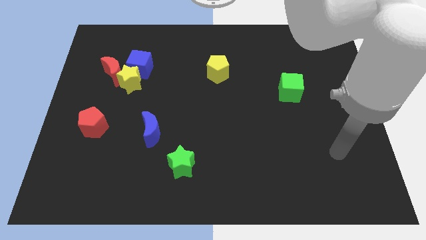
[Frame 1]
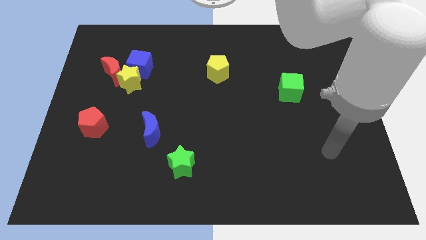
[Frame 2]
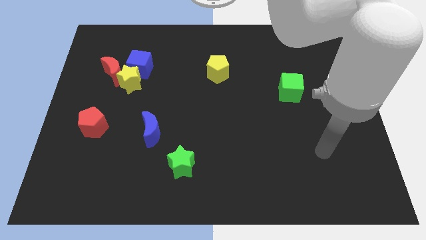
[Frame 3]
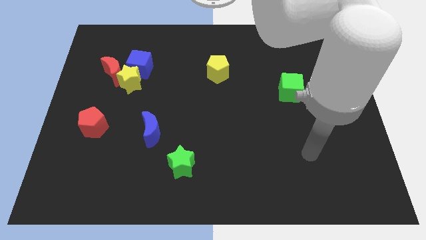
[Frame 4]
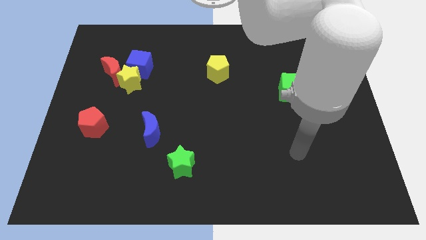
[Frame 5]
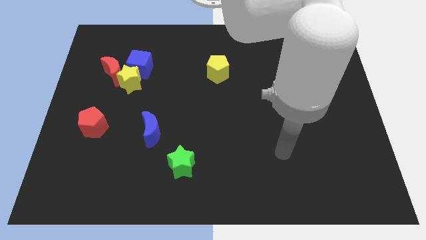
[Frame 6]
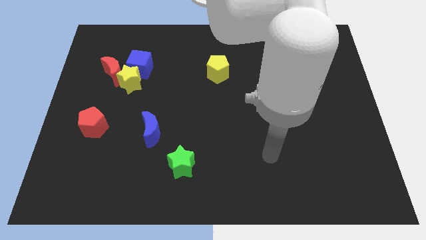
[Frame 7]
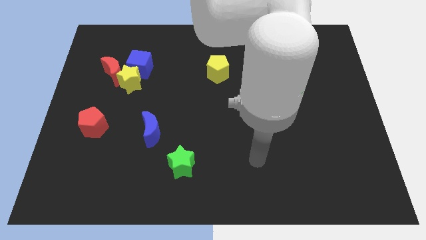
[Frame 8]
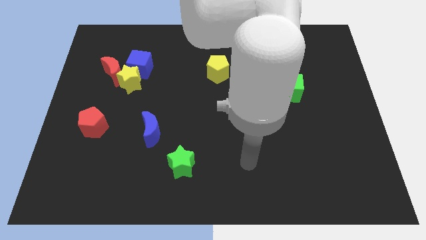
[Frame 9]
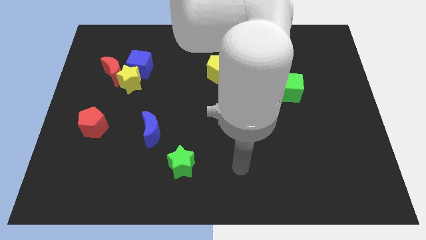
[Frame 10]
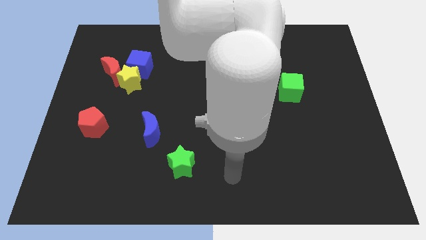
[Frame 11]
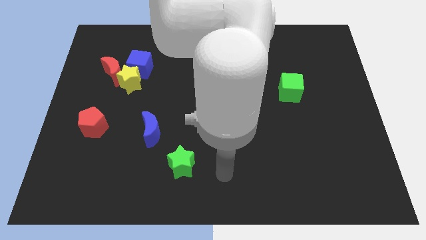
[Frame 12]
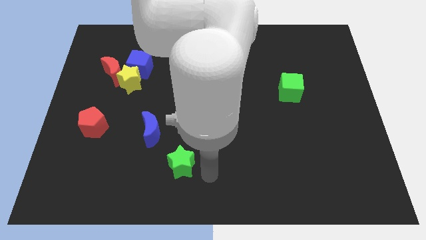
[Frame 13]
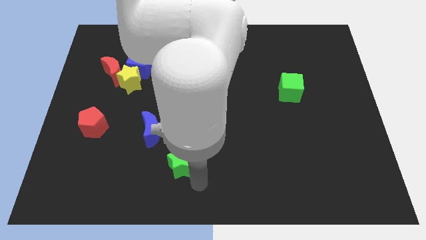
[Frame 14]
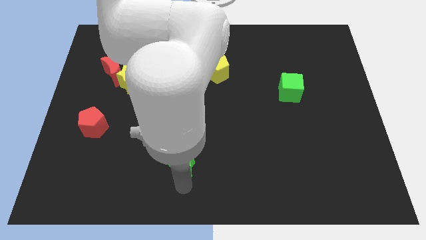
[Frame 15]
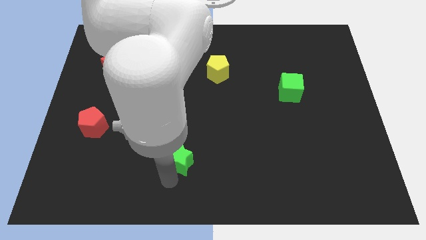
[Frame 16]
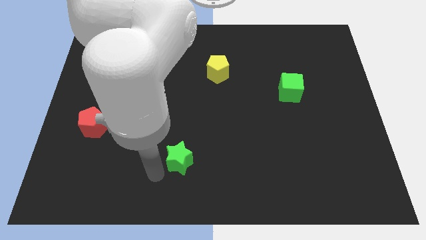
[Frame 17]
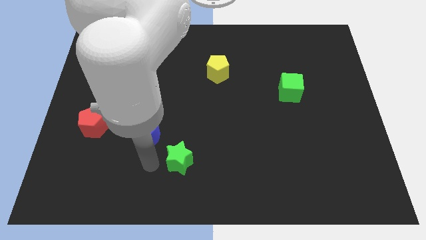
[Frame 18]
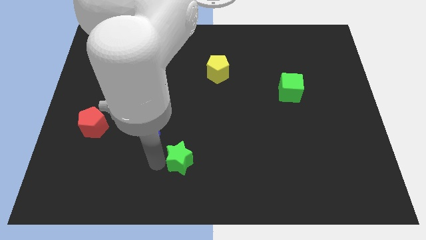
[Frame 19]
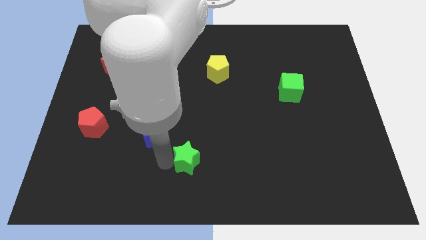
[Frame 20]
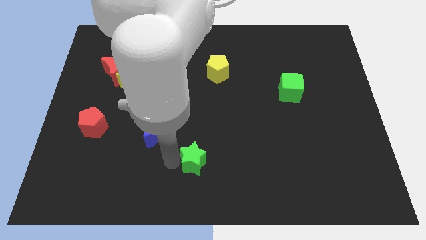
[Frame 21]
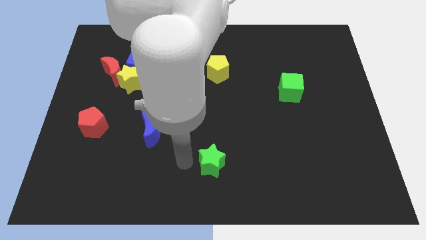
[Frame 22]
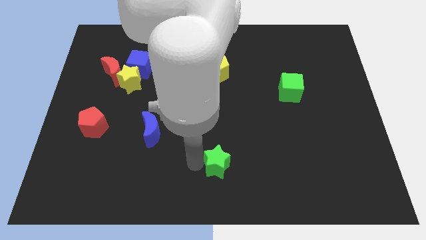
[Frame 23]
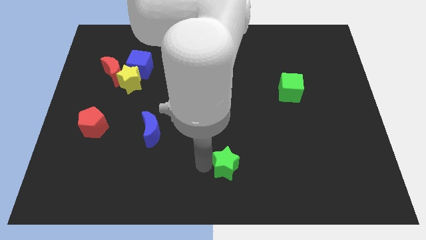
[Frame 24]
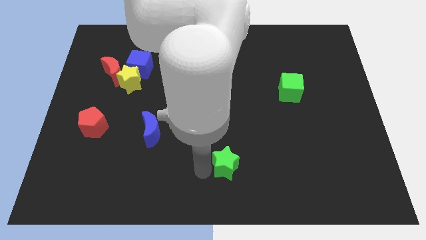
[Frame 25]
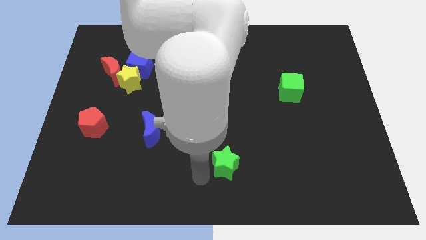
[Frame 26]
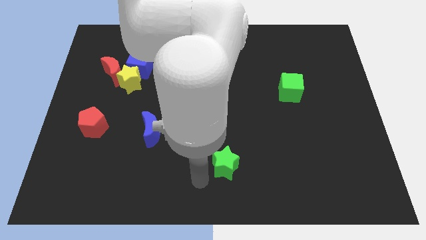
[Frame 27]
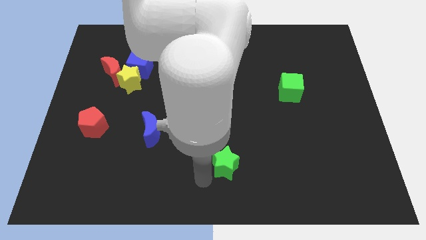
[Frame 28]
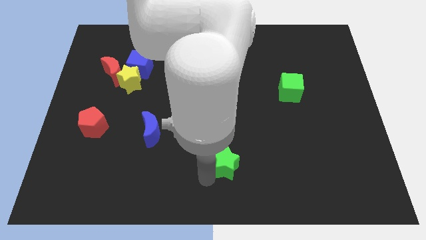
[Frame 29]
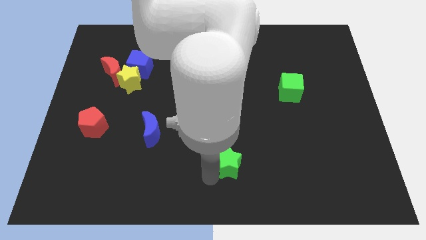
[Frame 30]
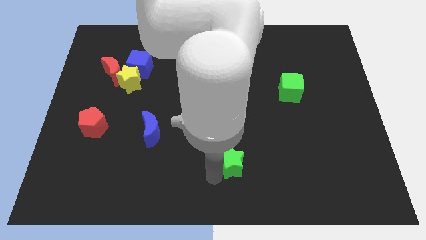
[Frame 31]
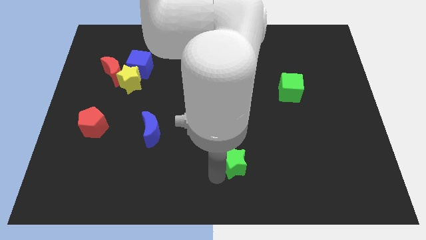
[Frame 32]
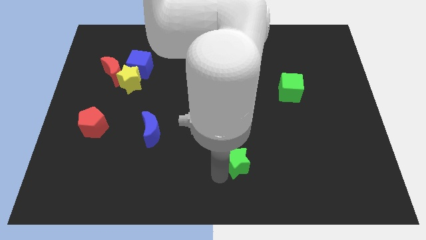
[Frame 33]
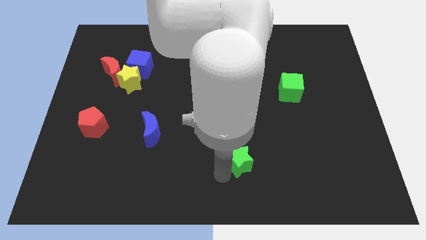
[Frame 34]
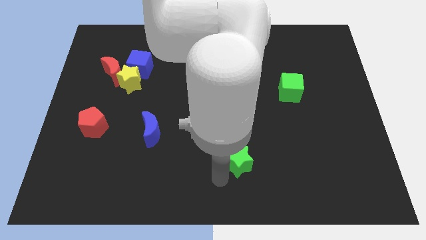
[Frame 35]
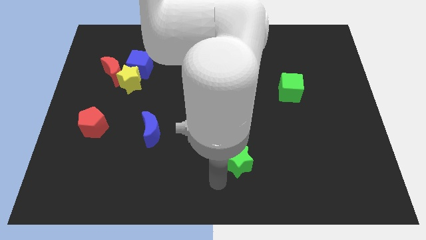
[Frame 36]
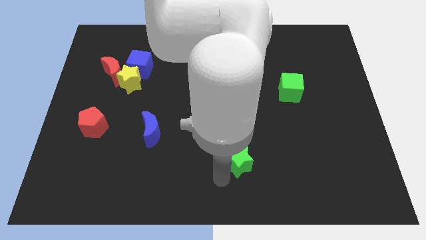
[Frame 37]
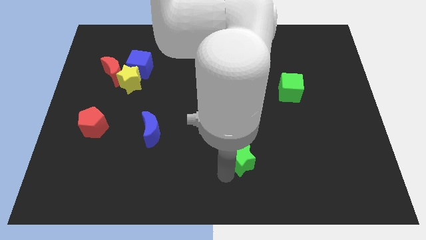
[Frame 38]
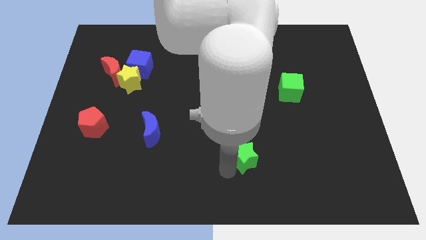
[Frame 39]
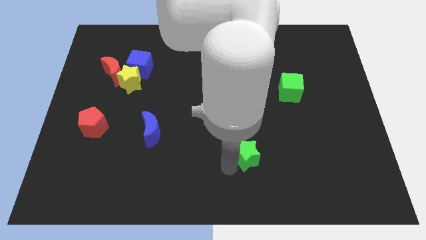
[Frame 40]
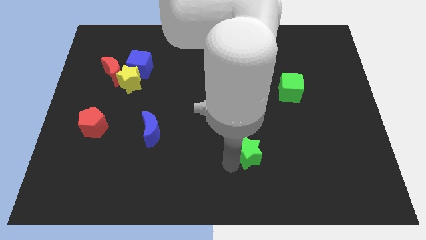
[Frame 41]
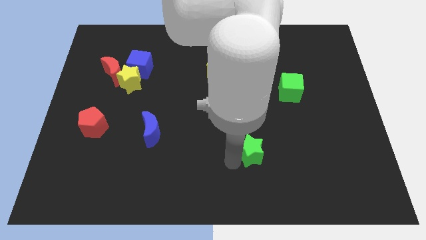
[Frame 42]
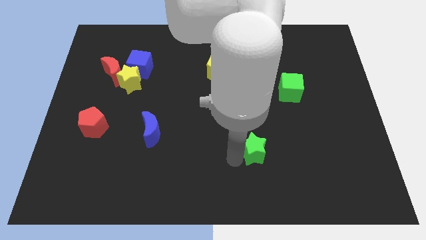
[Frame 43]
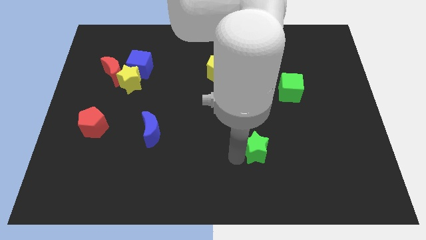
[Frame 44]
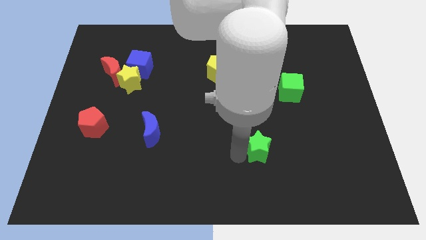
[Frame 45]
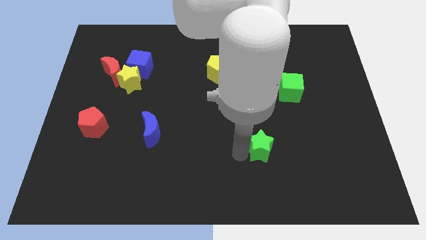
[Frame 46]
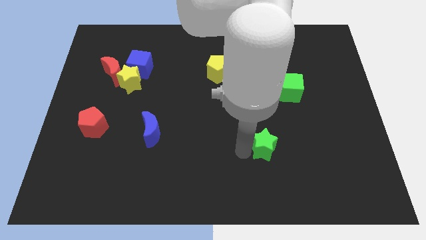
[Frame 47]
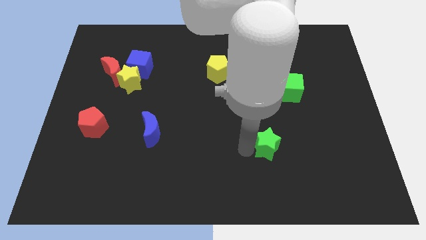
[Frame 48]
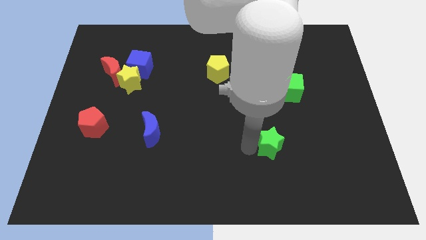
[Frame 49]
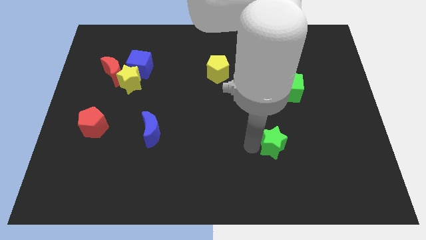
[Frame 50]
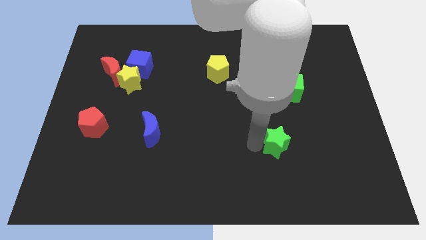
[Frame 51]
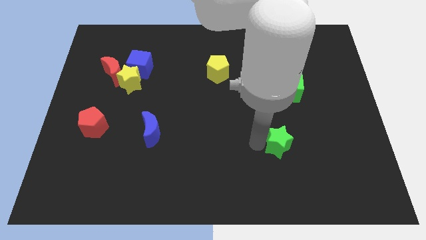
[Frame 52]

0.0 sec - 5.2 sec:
move the green star to the right

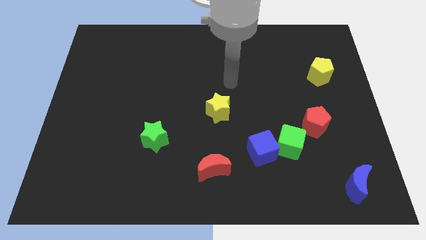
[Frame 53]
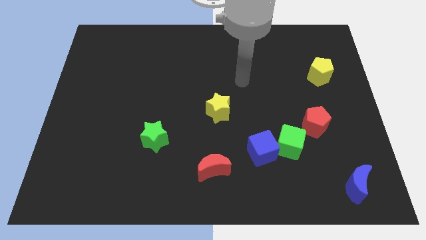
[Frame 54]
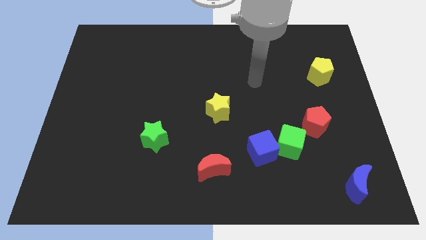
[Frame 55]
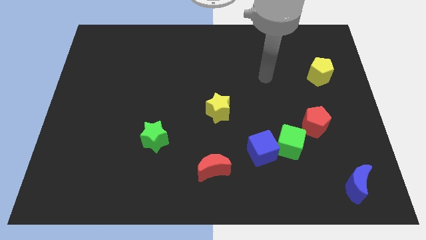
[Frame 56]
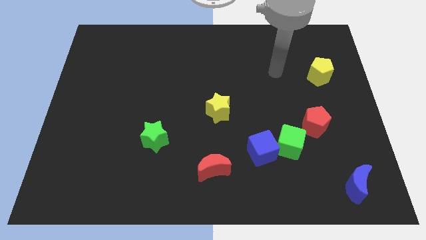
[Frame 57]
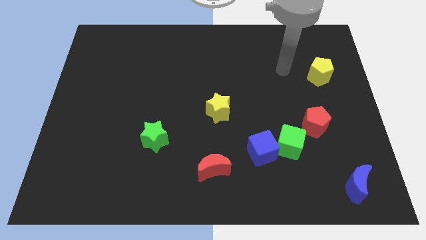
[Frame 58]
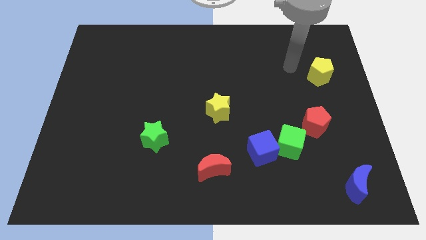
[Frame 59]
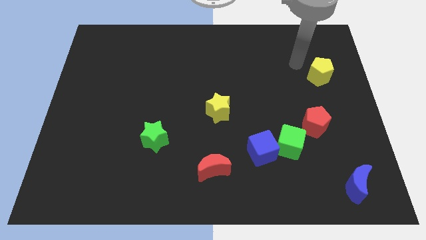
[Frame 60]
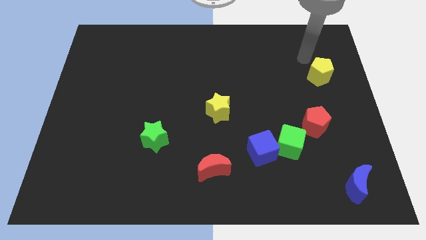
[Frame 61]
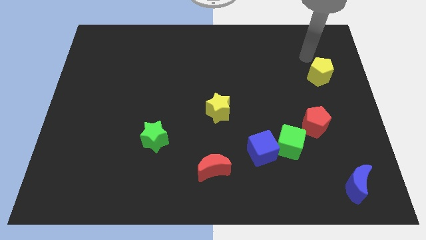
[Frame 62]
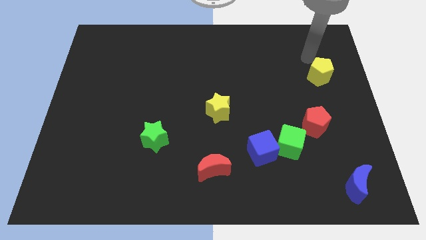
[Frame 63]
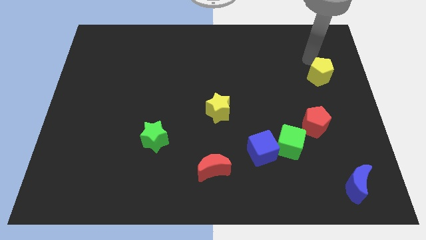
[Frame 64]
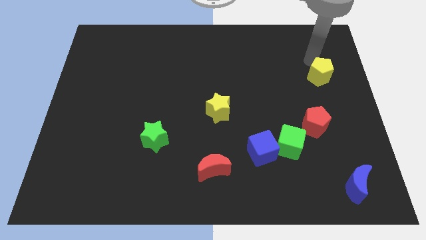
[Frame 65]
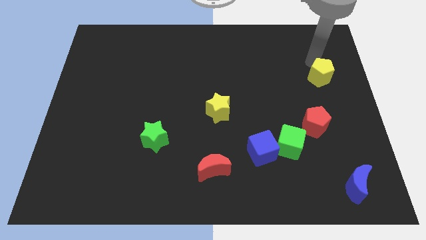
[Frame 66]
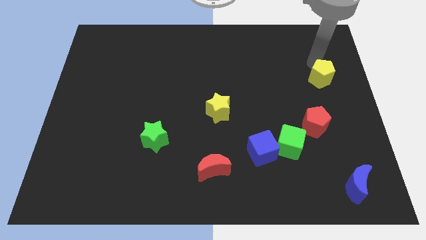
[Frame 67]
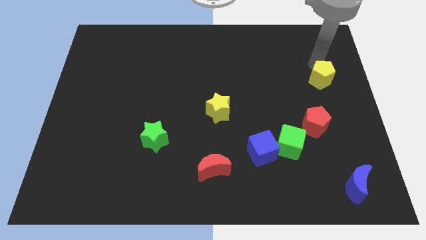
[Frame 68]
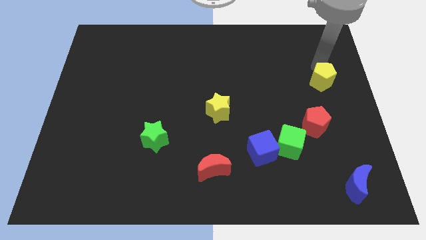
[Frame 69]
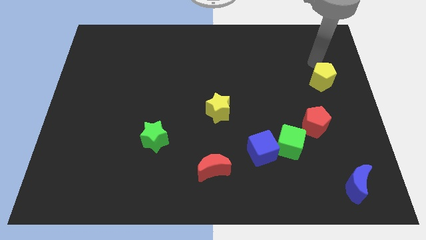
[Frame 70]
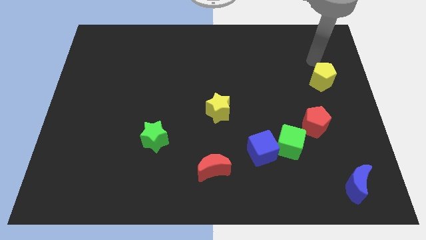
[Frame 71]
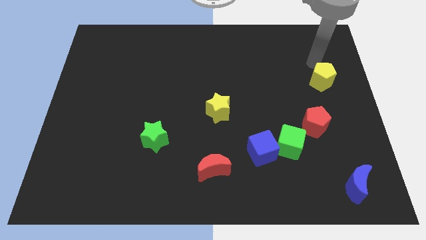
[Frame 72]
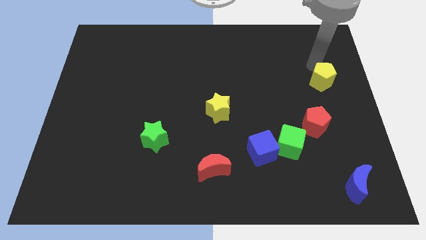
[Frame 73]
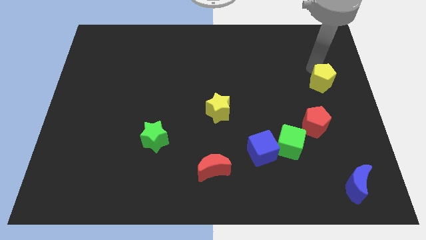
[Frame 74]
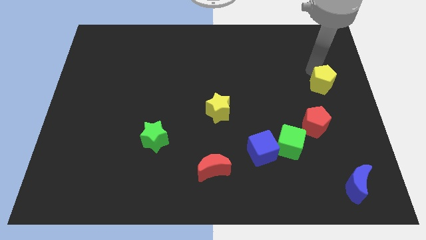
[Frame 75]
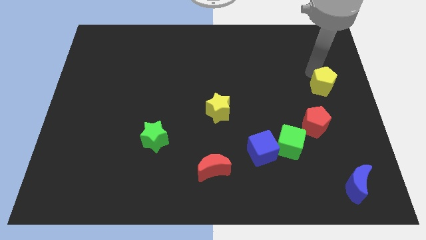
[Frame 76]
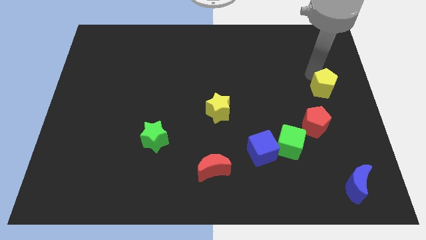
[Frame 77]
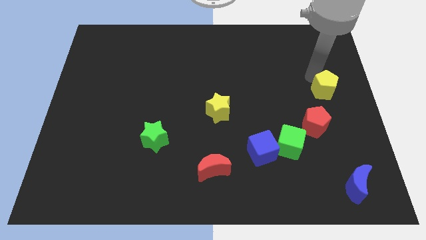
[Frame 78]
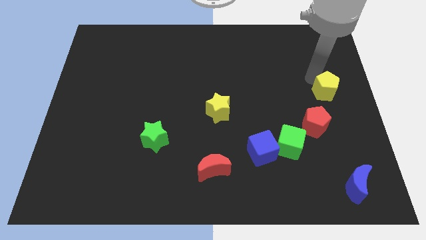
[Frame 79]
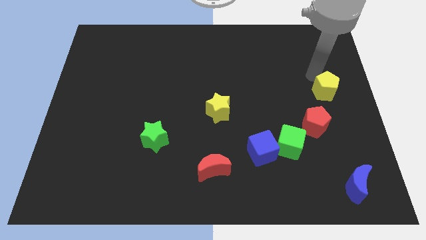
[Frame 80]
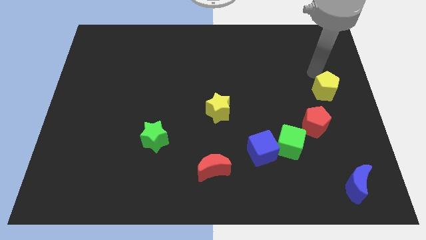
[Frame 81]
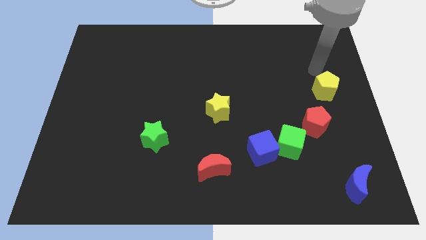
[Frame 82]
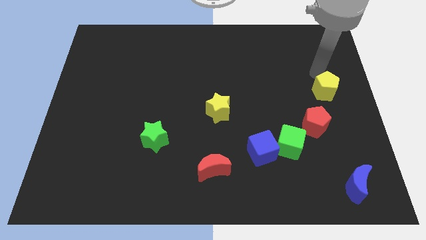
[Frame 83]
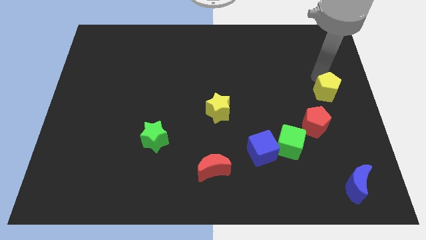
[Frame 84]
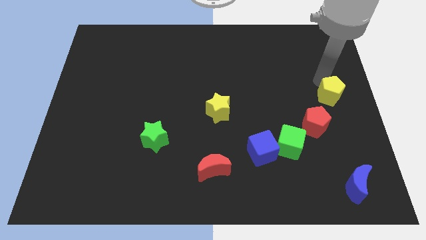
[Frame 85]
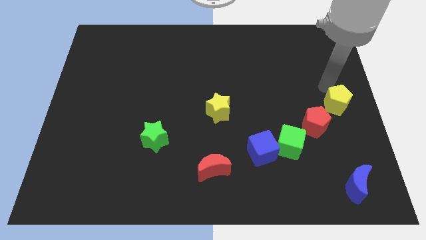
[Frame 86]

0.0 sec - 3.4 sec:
slightly move the yellow pentagon downwards
